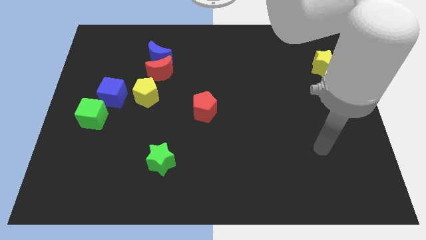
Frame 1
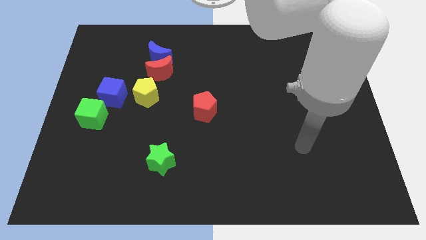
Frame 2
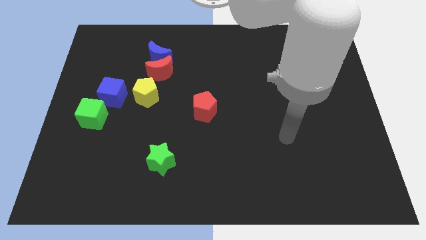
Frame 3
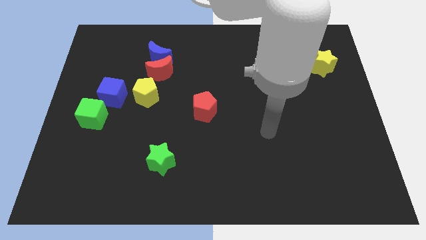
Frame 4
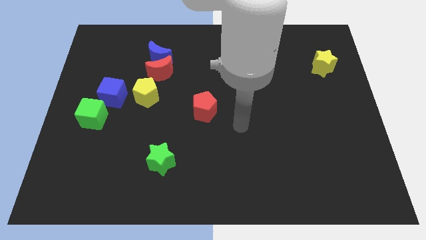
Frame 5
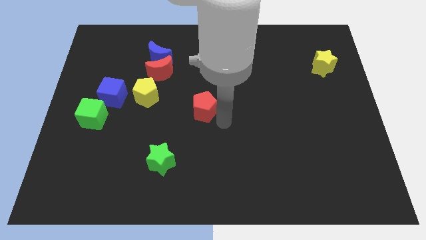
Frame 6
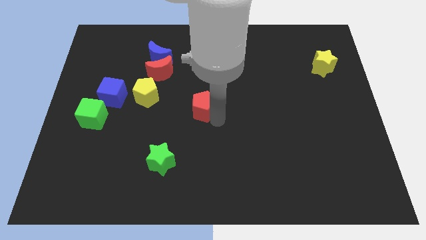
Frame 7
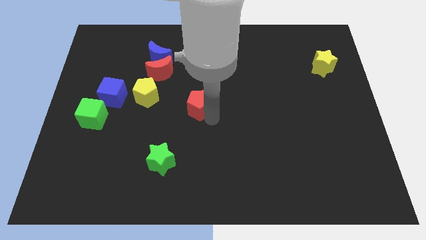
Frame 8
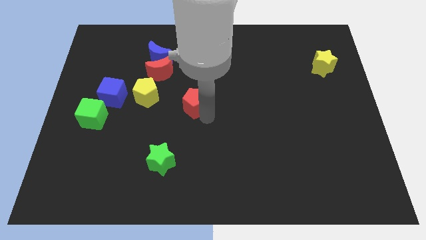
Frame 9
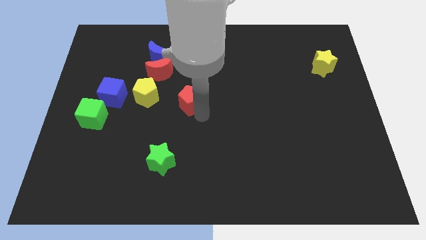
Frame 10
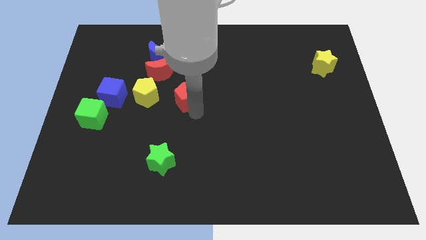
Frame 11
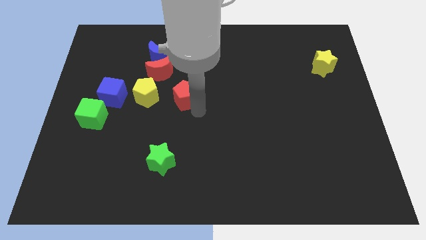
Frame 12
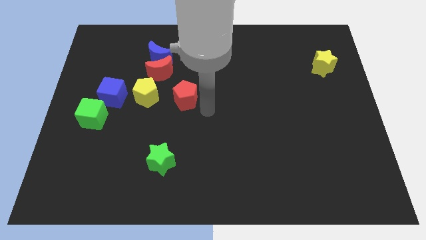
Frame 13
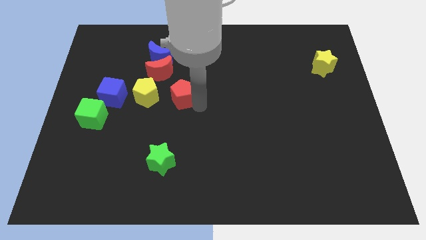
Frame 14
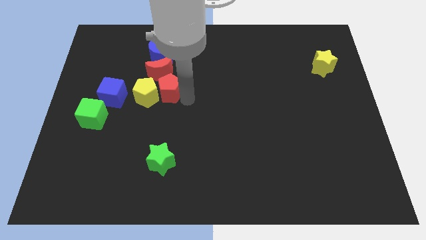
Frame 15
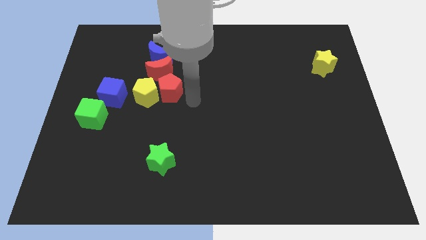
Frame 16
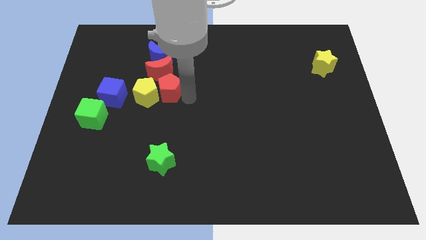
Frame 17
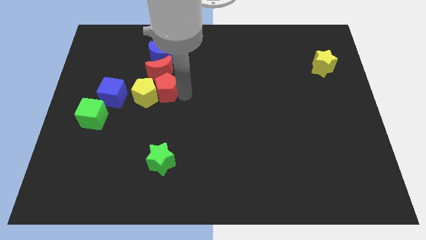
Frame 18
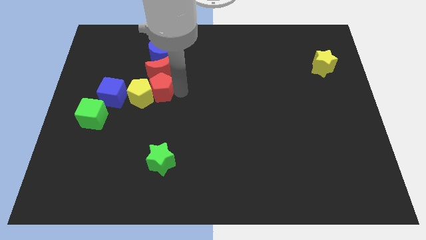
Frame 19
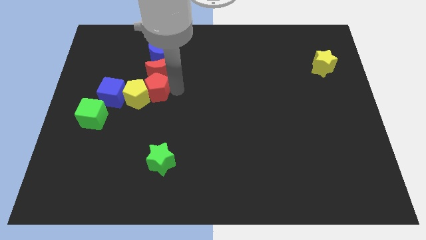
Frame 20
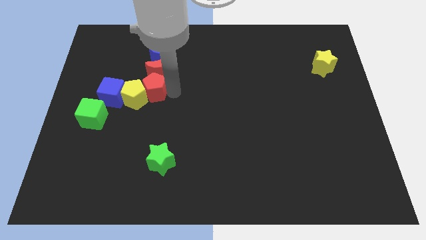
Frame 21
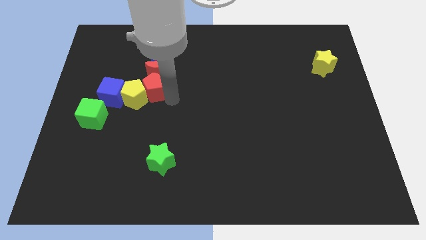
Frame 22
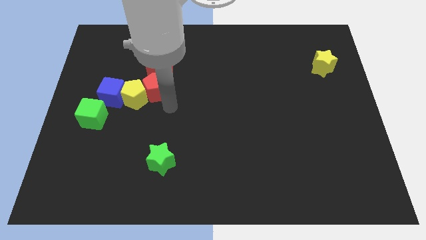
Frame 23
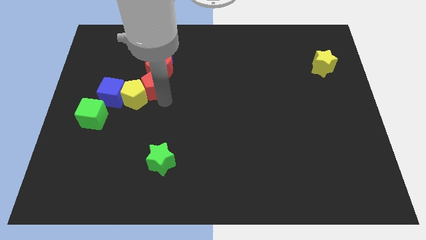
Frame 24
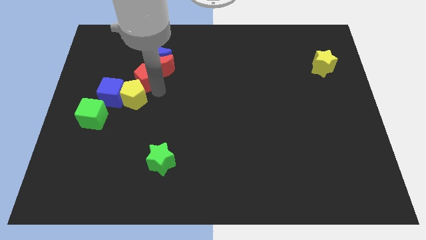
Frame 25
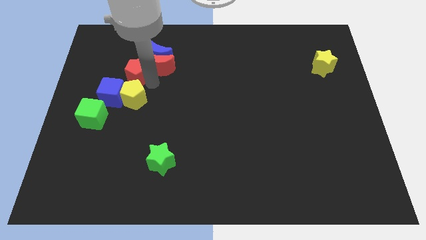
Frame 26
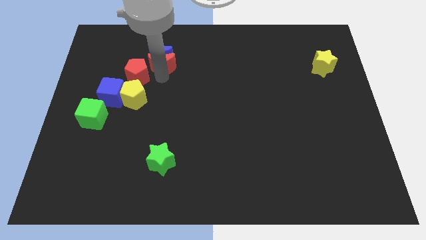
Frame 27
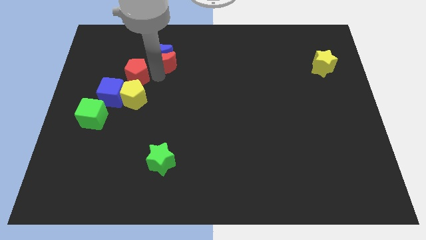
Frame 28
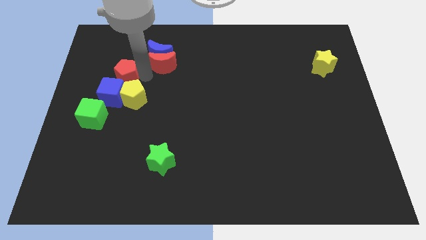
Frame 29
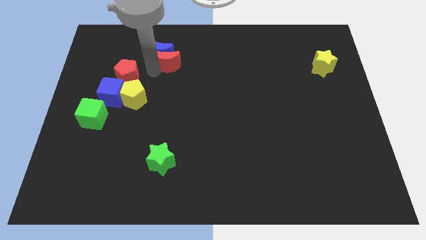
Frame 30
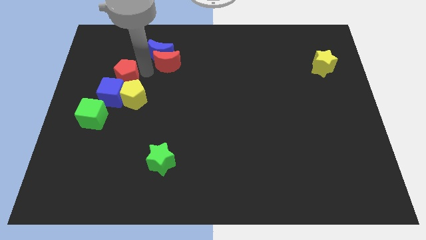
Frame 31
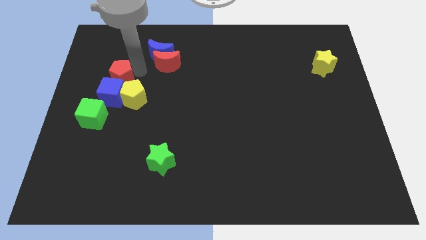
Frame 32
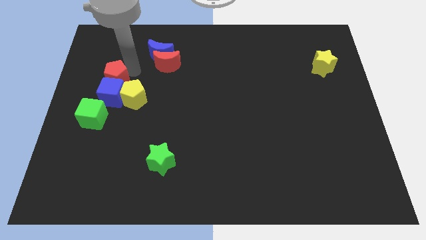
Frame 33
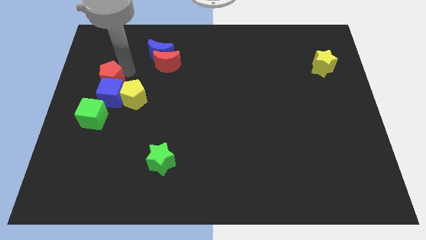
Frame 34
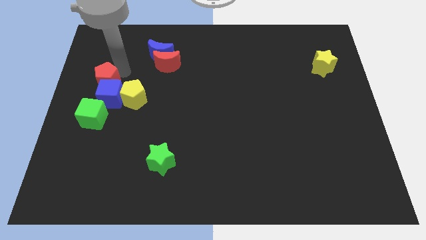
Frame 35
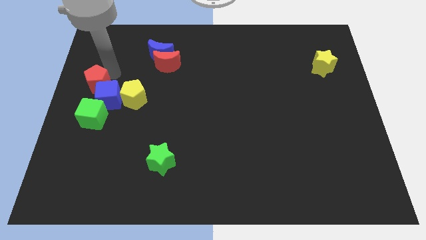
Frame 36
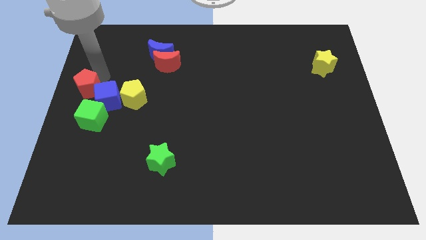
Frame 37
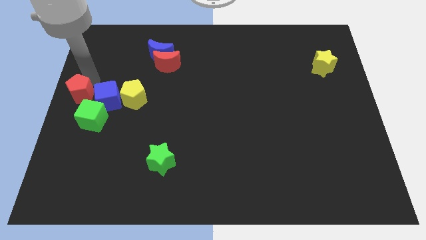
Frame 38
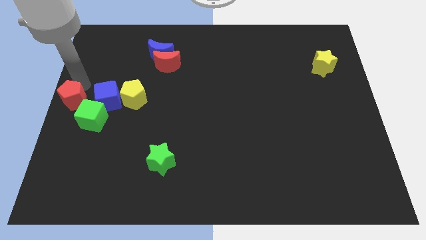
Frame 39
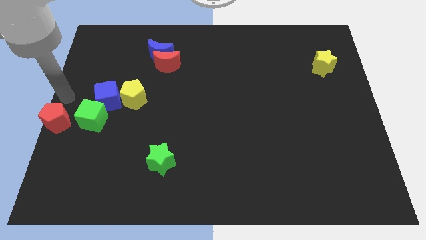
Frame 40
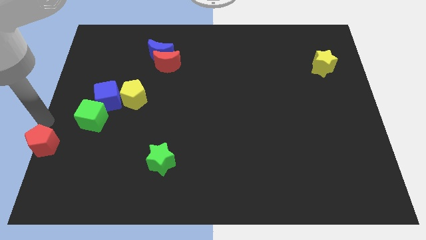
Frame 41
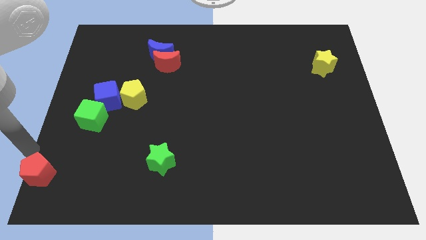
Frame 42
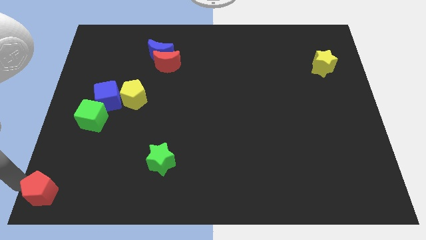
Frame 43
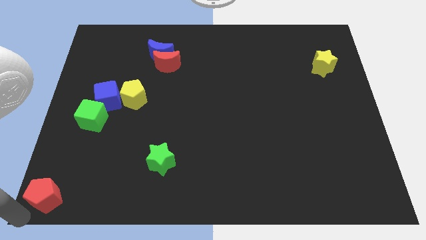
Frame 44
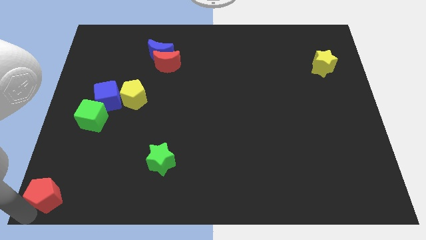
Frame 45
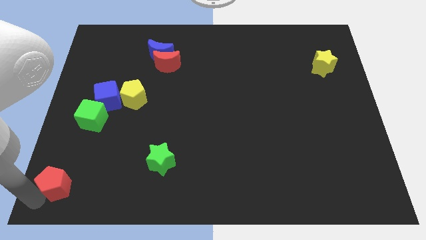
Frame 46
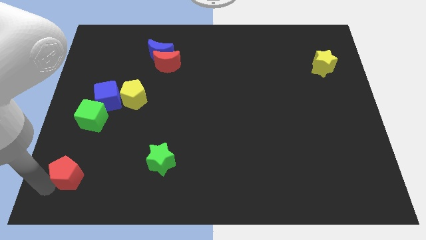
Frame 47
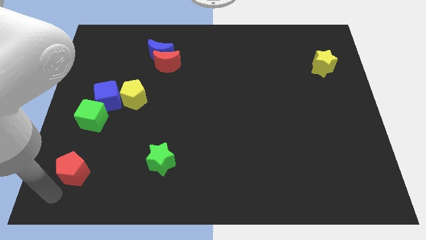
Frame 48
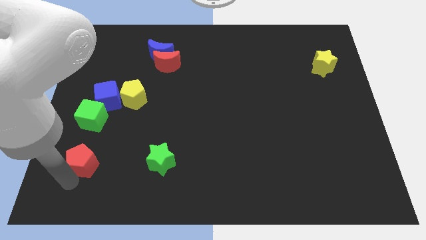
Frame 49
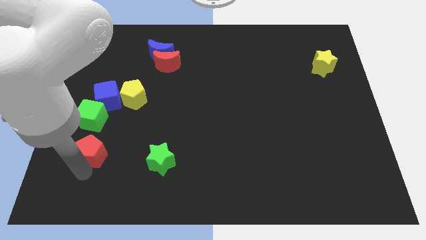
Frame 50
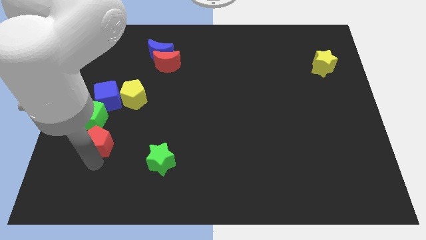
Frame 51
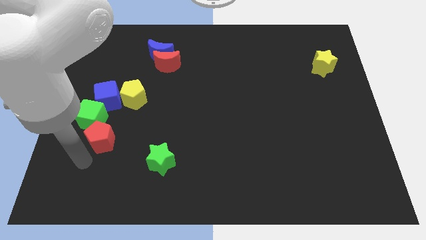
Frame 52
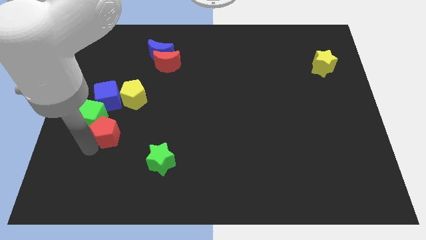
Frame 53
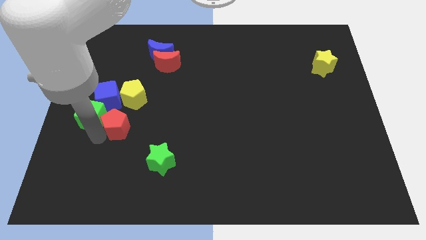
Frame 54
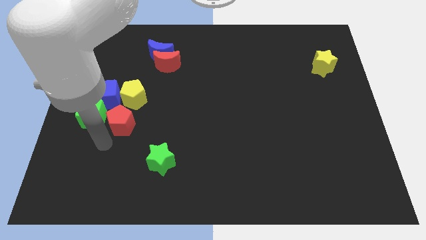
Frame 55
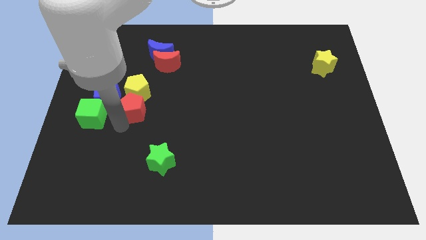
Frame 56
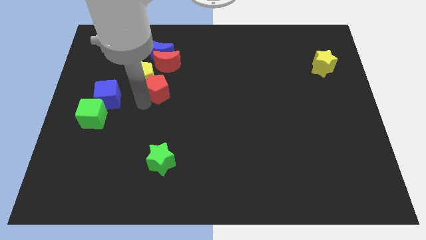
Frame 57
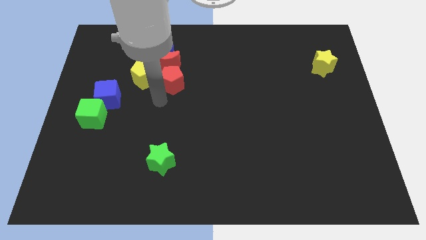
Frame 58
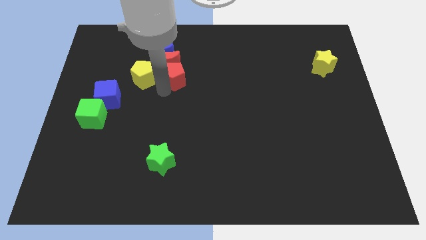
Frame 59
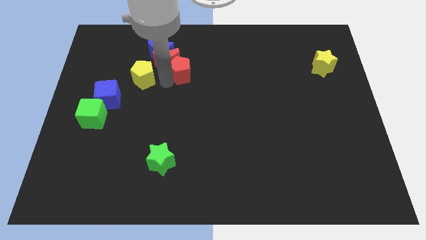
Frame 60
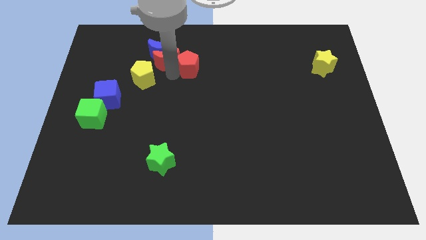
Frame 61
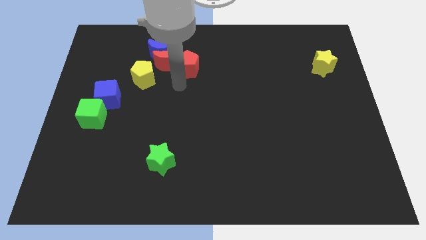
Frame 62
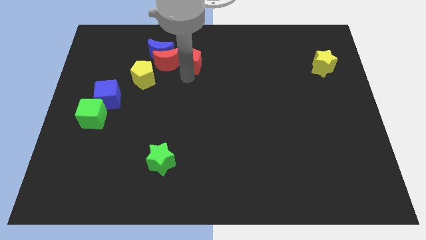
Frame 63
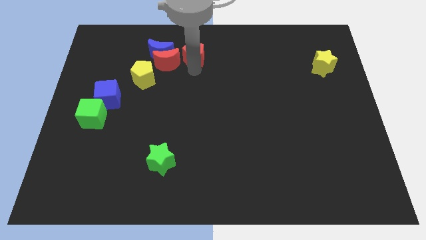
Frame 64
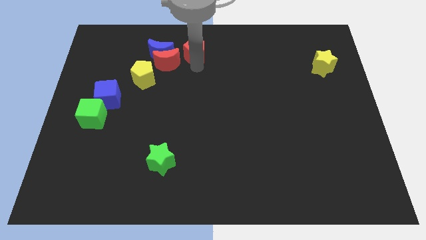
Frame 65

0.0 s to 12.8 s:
put the red pentagon to the towards your base
